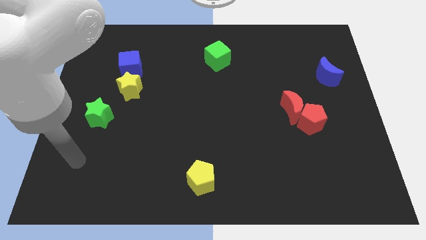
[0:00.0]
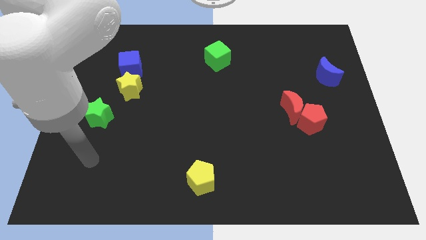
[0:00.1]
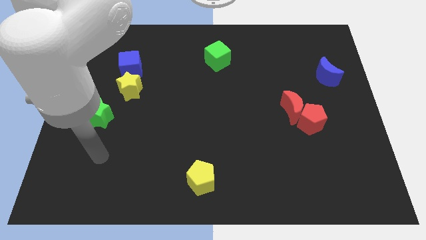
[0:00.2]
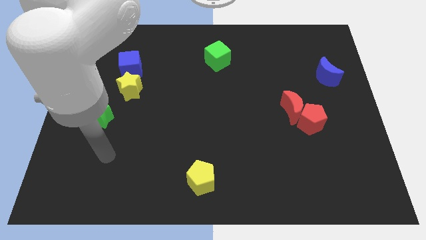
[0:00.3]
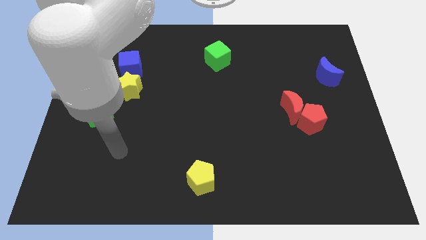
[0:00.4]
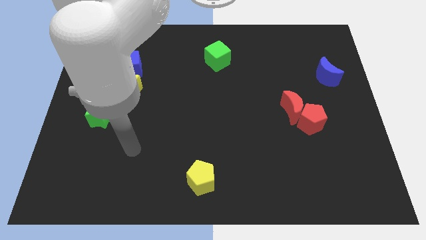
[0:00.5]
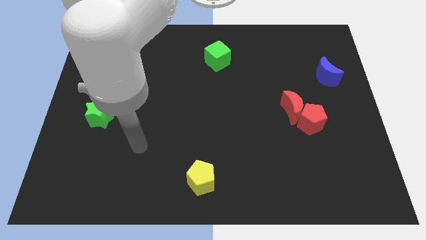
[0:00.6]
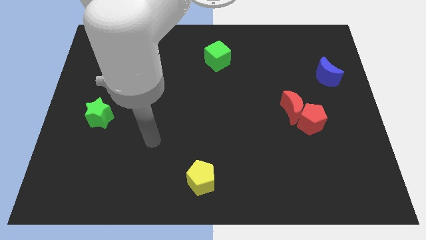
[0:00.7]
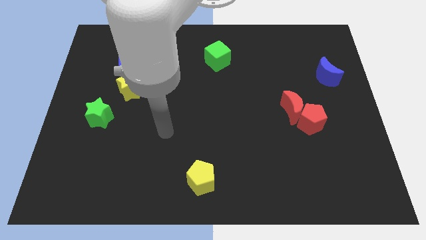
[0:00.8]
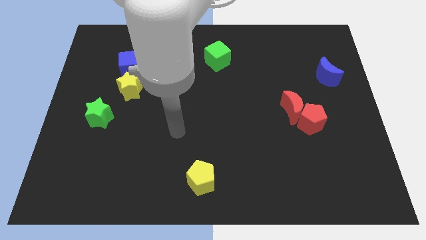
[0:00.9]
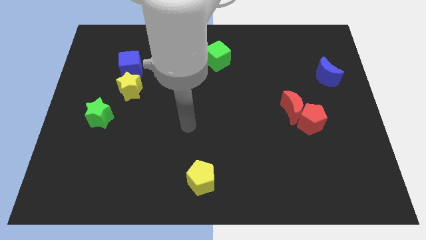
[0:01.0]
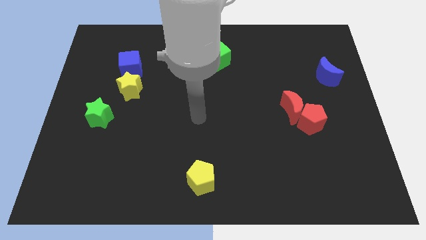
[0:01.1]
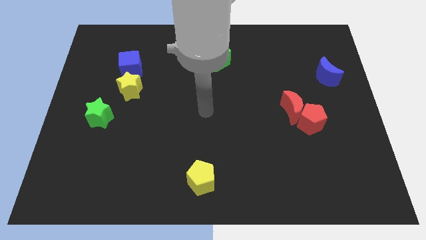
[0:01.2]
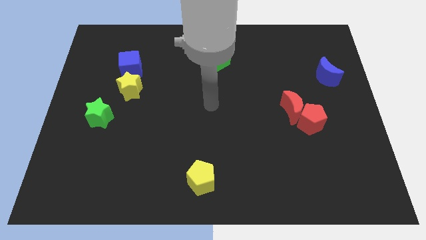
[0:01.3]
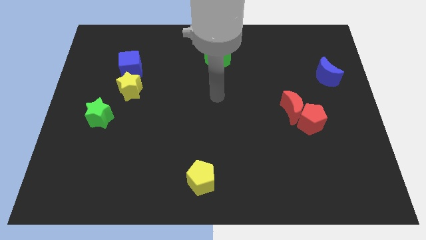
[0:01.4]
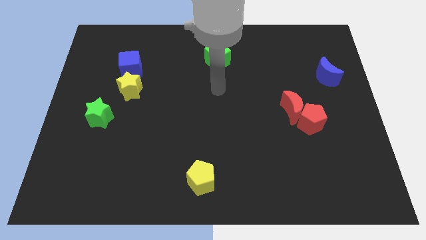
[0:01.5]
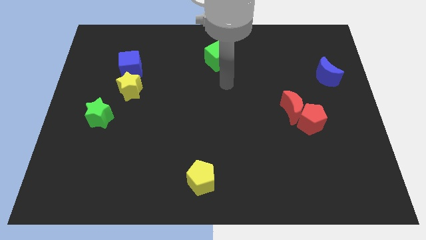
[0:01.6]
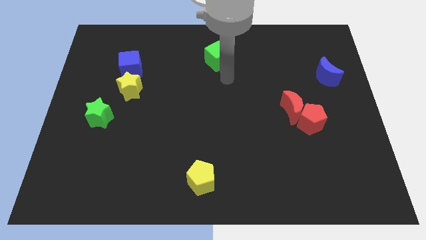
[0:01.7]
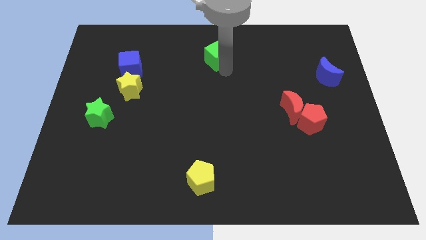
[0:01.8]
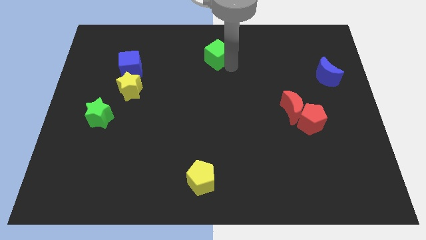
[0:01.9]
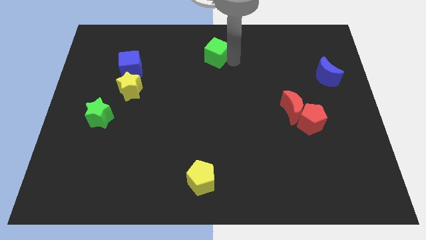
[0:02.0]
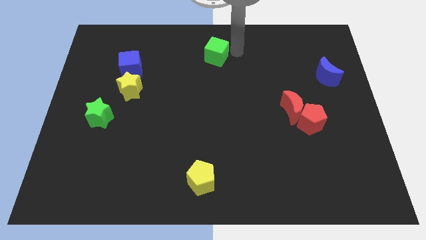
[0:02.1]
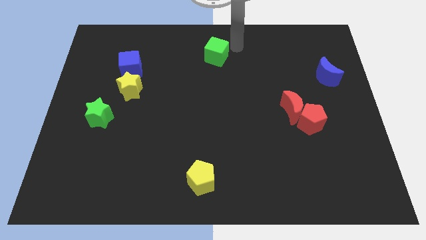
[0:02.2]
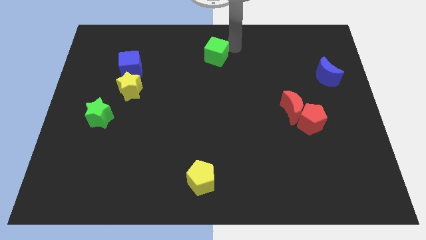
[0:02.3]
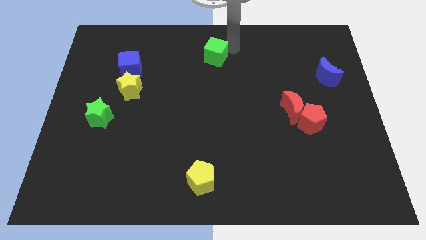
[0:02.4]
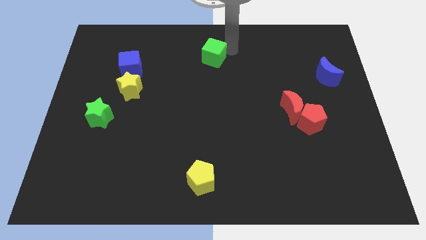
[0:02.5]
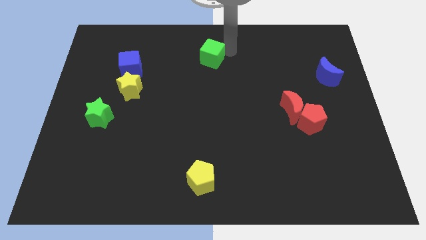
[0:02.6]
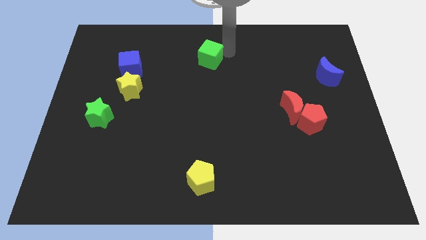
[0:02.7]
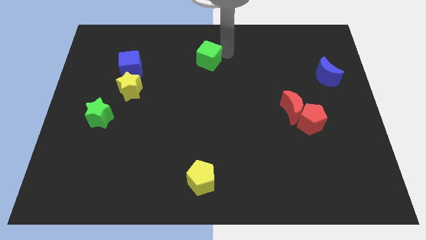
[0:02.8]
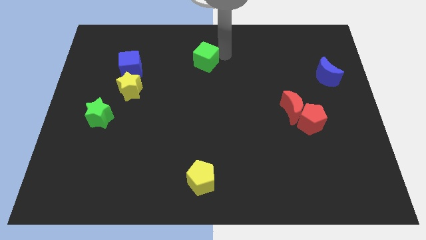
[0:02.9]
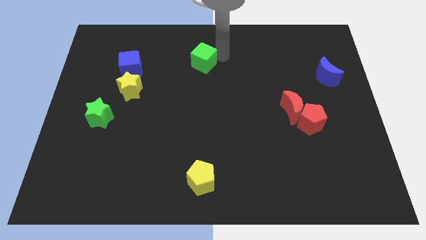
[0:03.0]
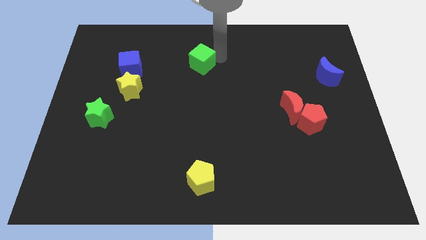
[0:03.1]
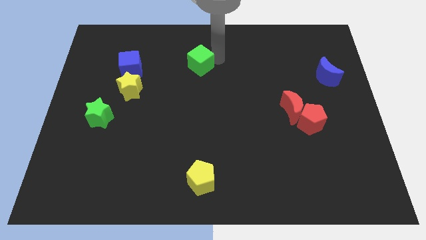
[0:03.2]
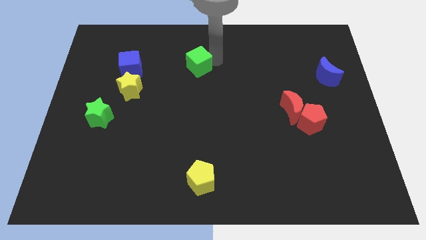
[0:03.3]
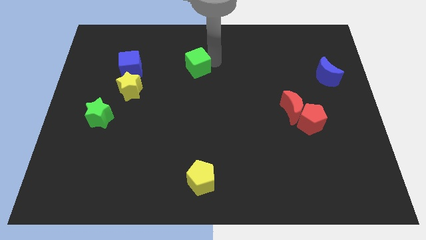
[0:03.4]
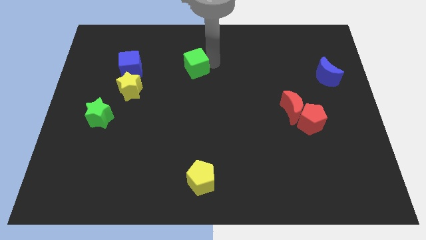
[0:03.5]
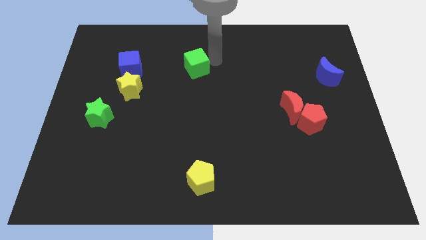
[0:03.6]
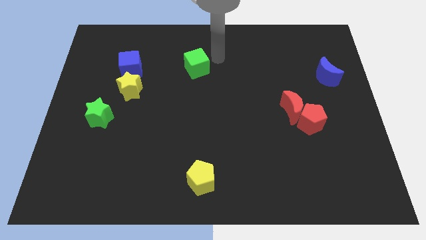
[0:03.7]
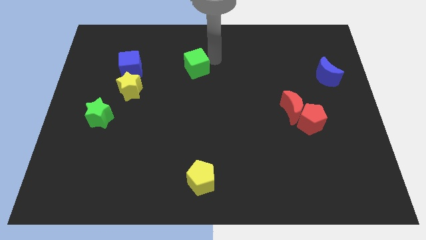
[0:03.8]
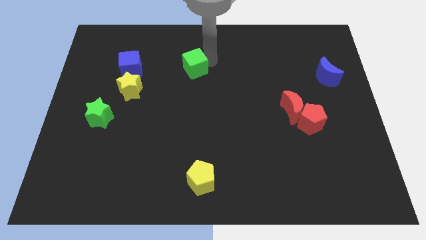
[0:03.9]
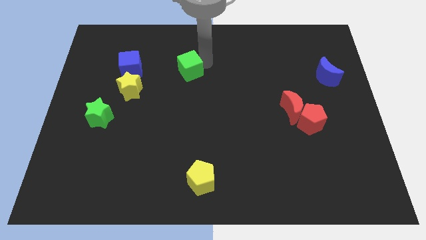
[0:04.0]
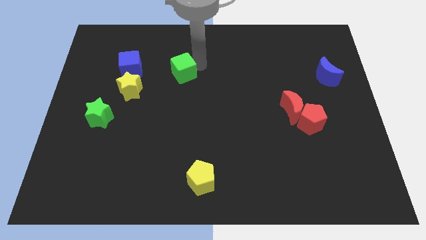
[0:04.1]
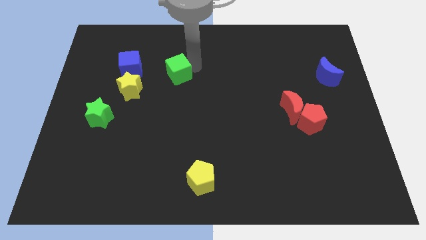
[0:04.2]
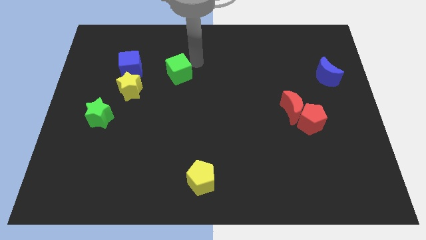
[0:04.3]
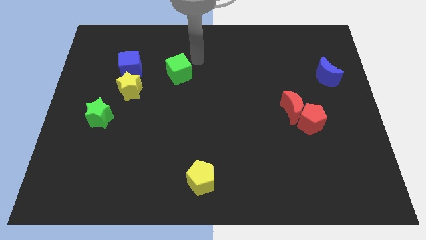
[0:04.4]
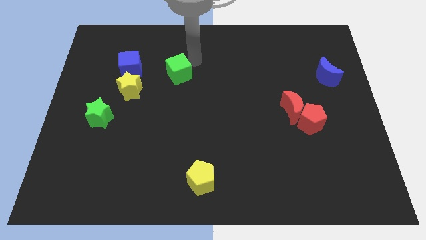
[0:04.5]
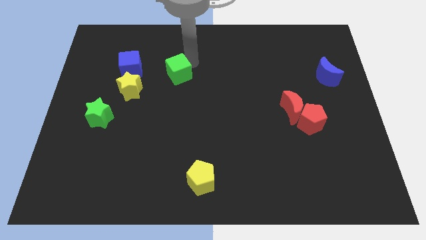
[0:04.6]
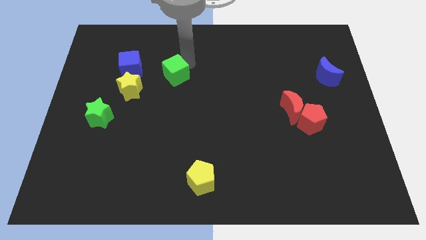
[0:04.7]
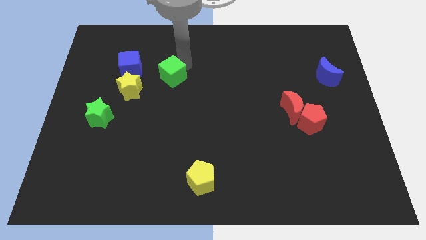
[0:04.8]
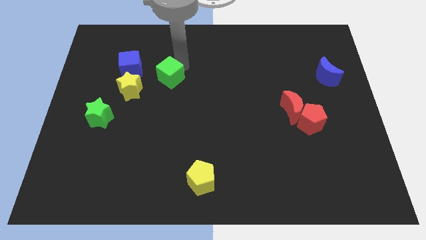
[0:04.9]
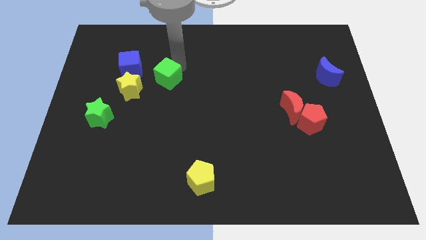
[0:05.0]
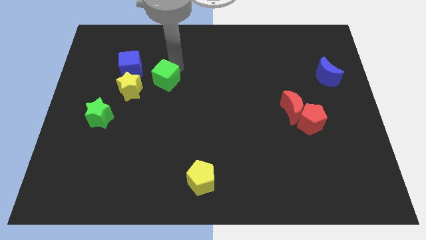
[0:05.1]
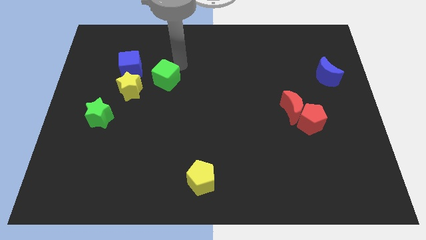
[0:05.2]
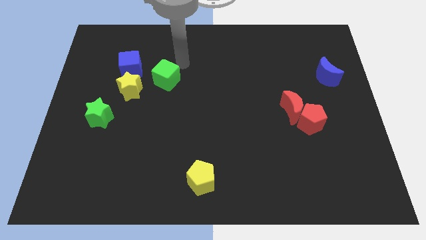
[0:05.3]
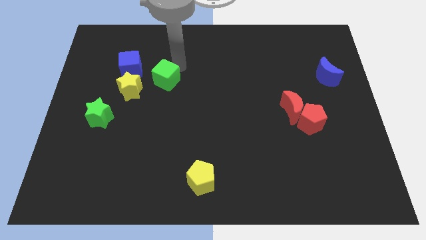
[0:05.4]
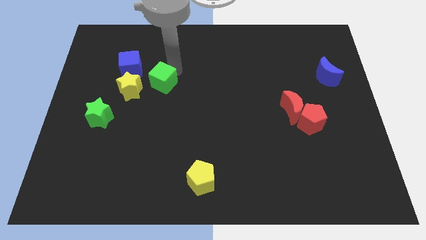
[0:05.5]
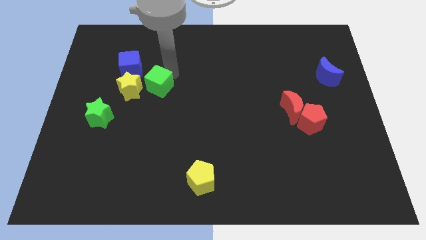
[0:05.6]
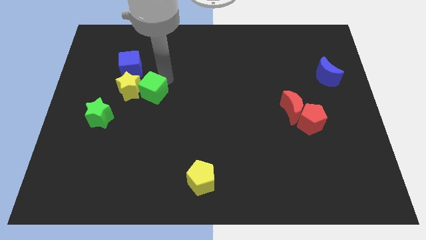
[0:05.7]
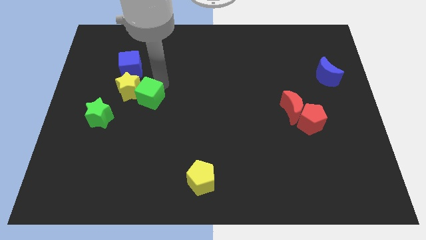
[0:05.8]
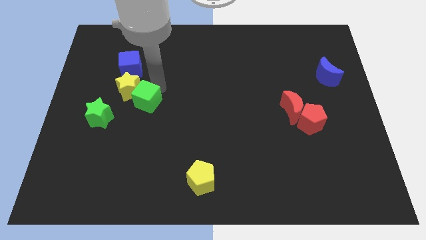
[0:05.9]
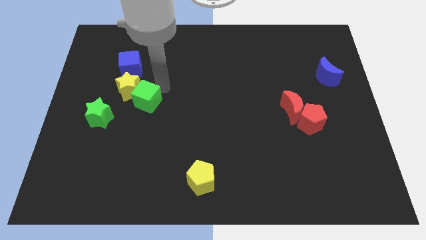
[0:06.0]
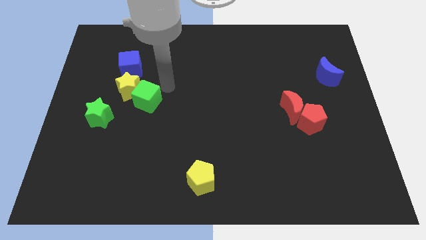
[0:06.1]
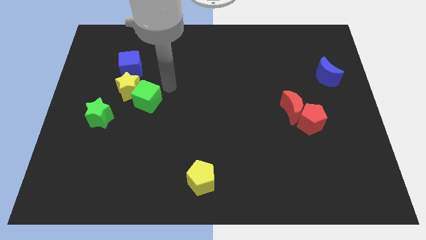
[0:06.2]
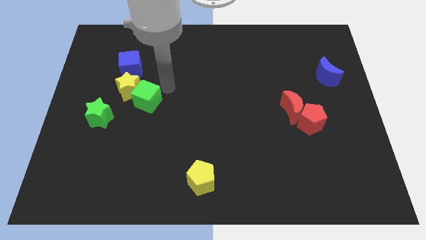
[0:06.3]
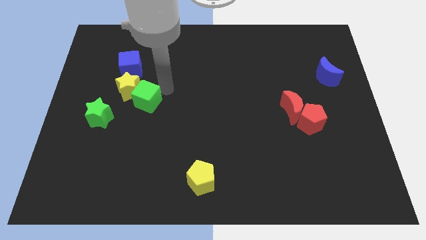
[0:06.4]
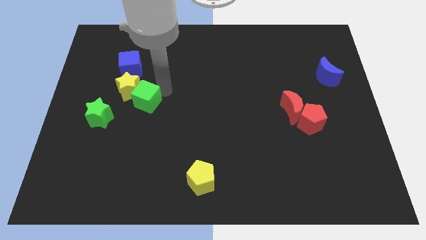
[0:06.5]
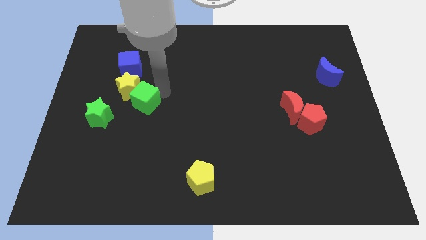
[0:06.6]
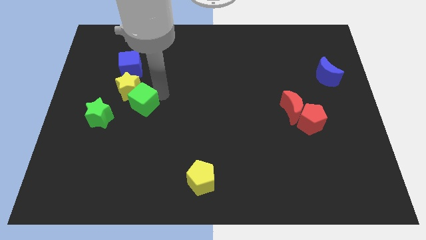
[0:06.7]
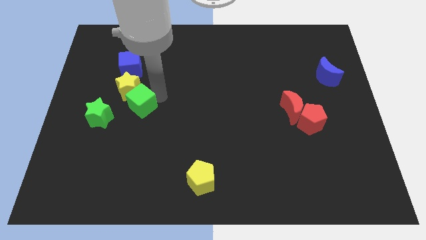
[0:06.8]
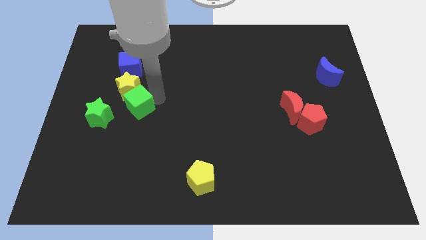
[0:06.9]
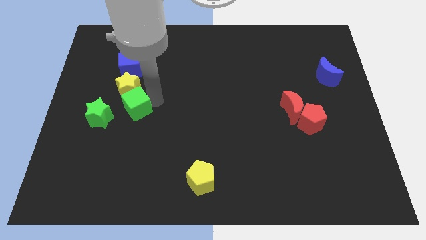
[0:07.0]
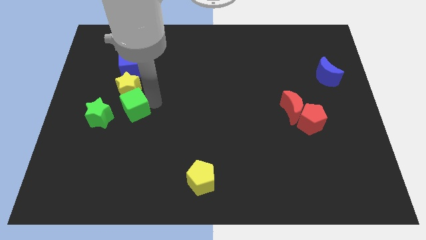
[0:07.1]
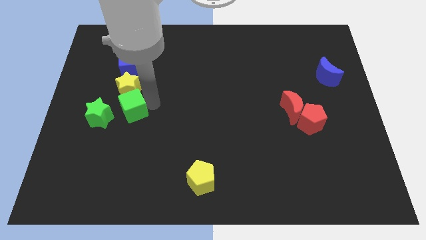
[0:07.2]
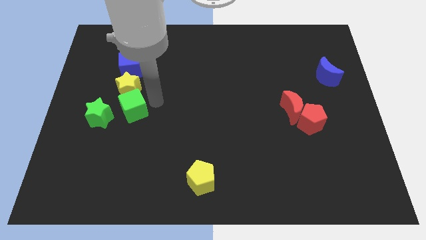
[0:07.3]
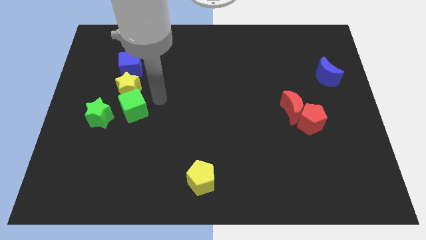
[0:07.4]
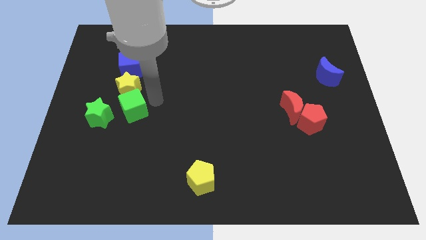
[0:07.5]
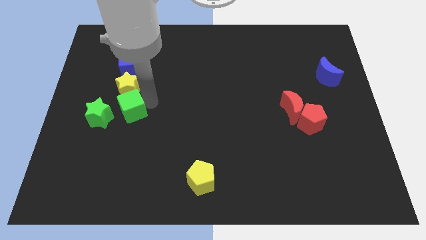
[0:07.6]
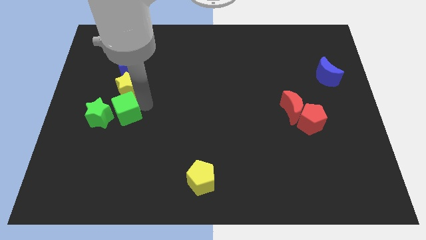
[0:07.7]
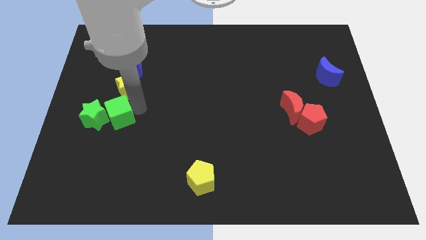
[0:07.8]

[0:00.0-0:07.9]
slide the green cube towards the green star
